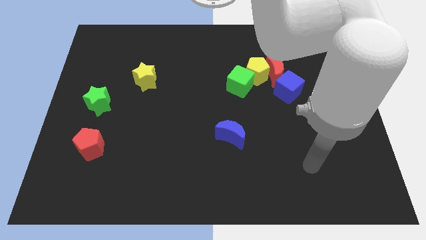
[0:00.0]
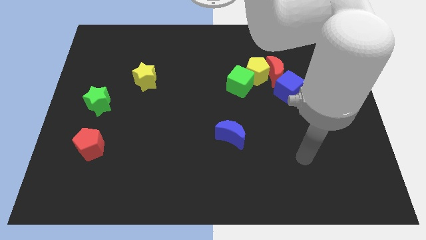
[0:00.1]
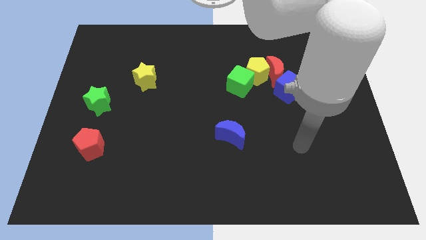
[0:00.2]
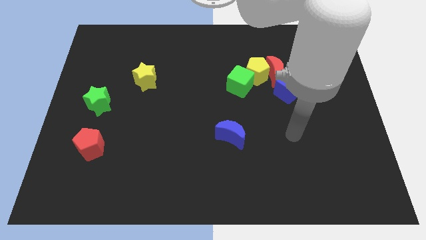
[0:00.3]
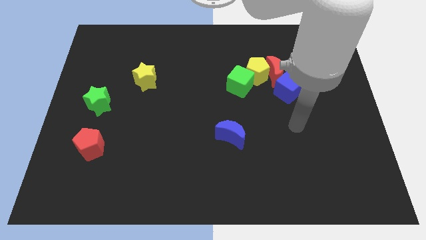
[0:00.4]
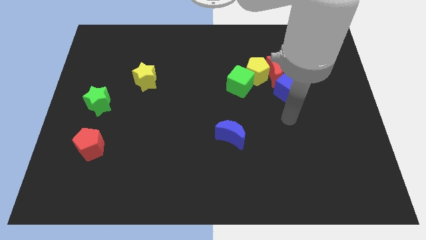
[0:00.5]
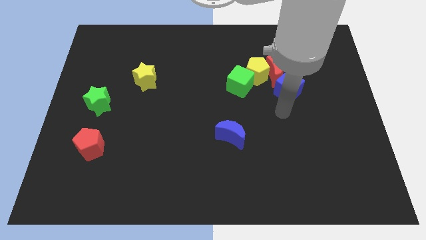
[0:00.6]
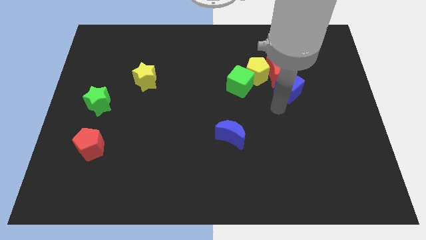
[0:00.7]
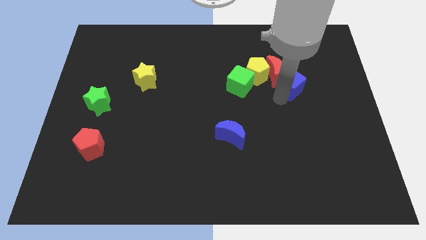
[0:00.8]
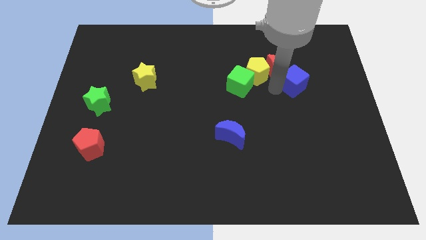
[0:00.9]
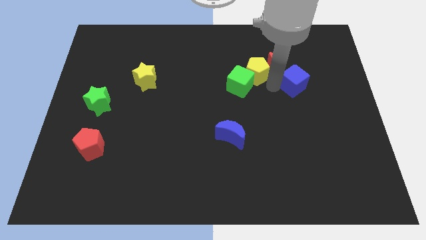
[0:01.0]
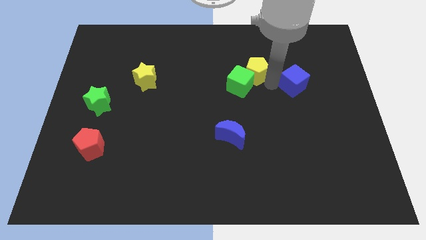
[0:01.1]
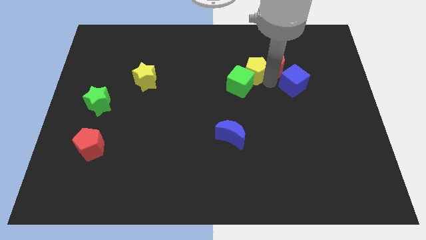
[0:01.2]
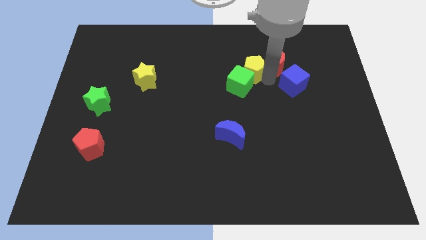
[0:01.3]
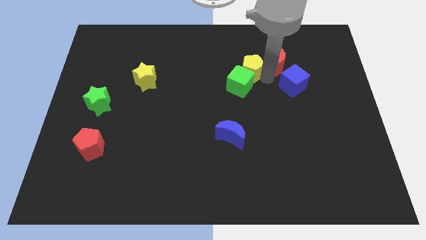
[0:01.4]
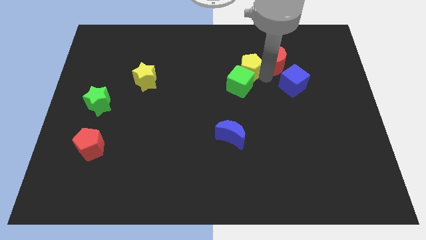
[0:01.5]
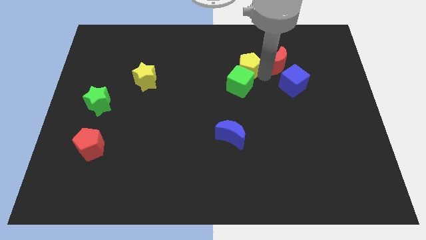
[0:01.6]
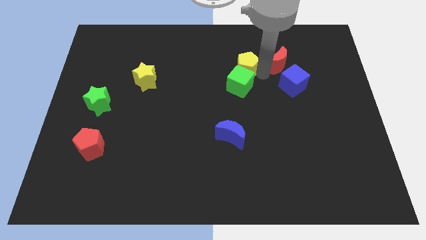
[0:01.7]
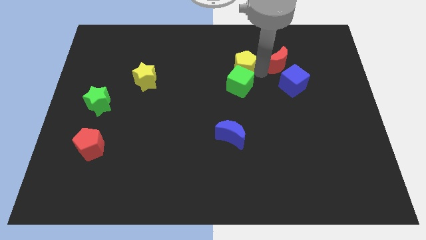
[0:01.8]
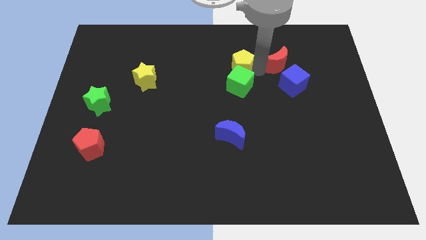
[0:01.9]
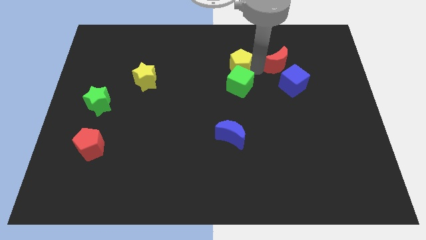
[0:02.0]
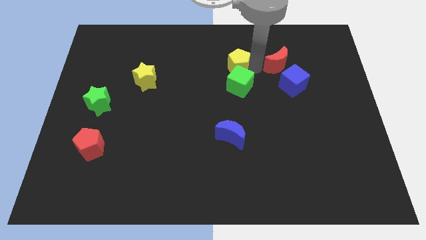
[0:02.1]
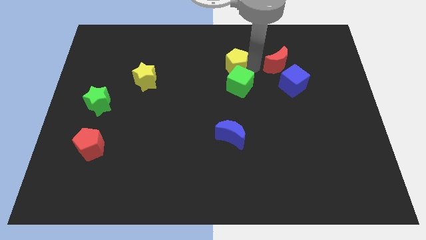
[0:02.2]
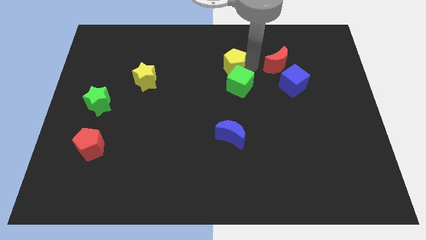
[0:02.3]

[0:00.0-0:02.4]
pull the yellow pentagon apart from the red moon, green cube, and blue cube

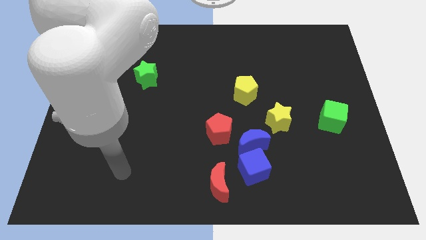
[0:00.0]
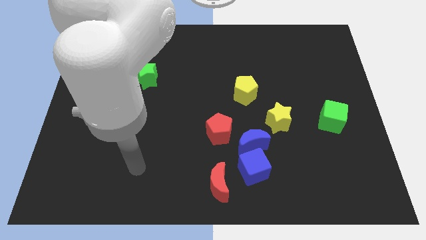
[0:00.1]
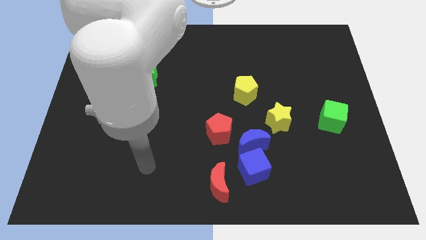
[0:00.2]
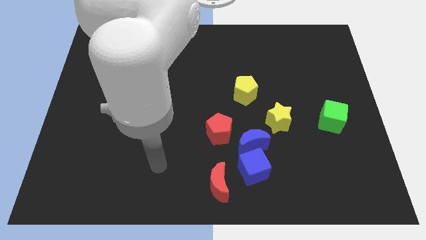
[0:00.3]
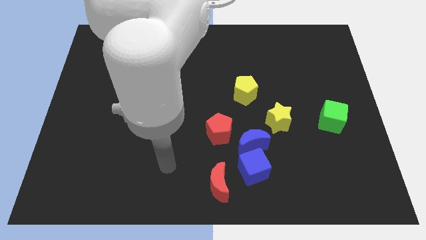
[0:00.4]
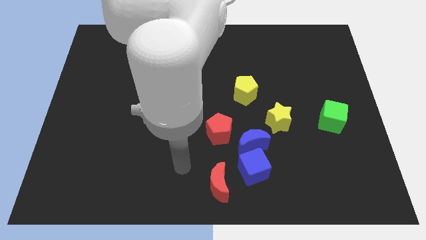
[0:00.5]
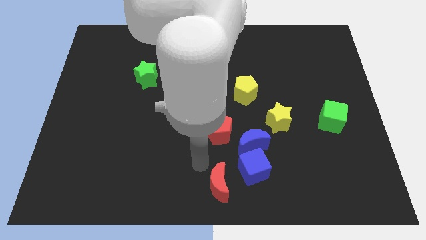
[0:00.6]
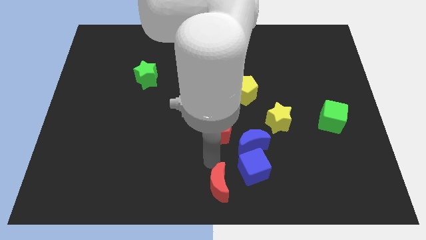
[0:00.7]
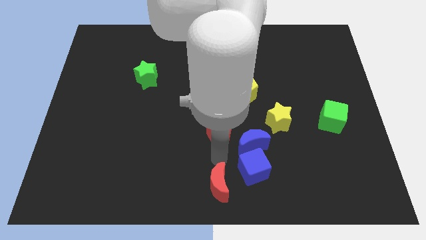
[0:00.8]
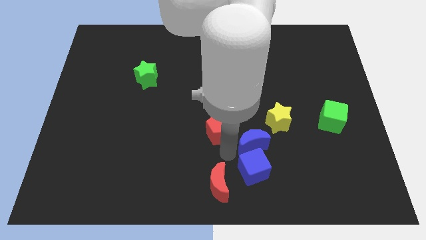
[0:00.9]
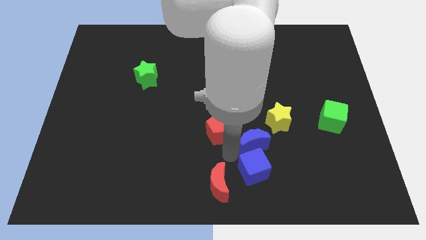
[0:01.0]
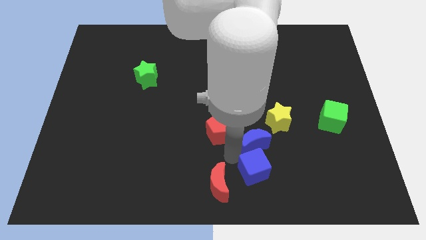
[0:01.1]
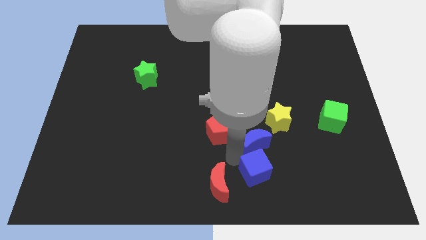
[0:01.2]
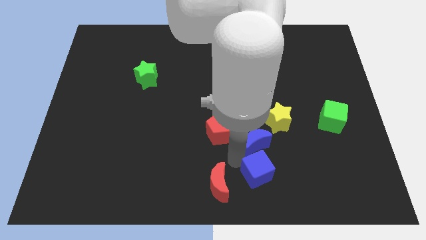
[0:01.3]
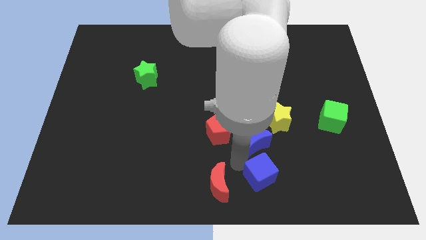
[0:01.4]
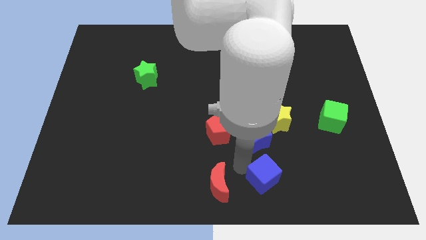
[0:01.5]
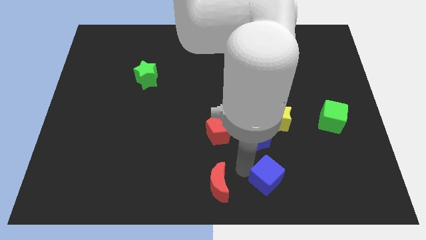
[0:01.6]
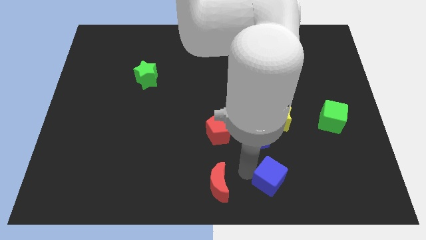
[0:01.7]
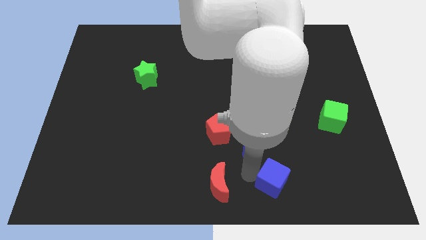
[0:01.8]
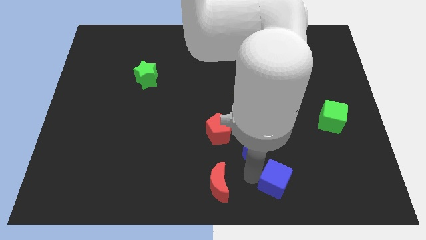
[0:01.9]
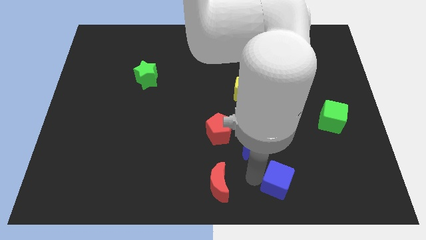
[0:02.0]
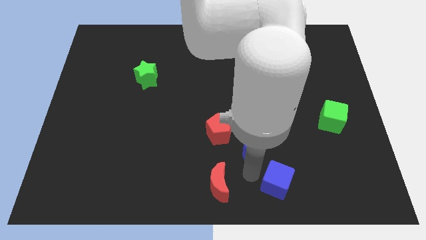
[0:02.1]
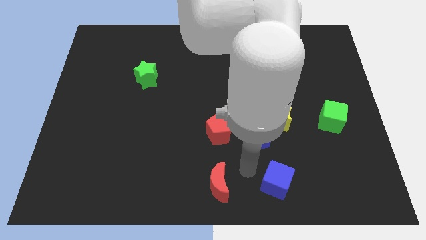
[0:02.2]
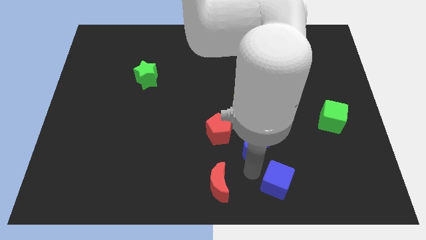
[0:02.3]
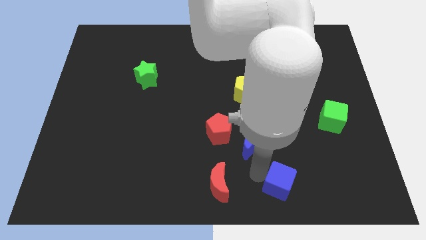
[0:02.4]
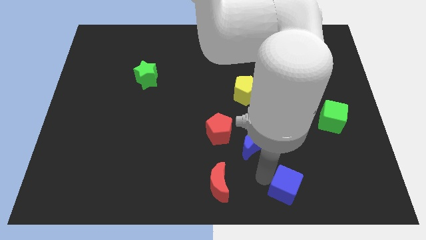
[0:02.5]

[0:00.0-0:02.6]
move the blue cube away from the blue moon and red moon

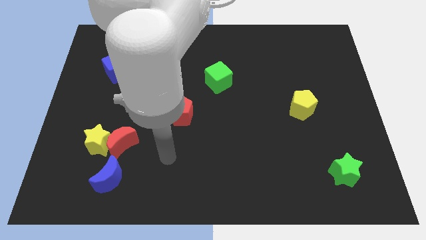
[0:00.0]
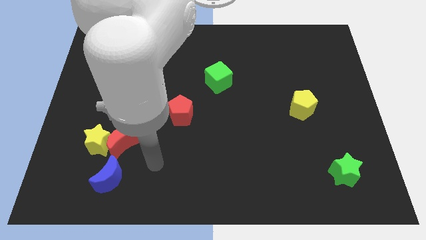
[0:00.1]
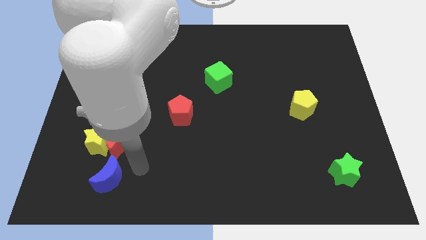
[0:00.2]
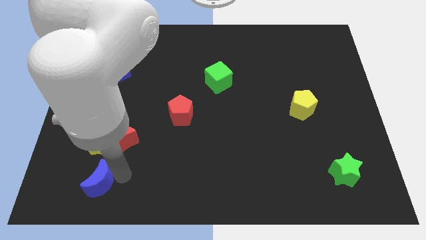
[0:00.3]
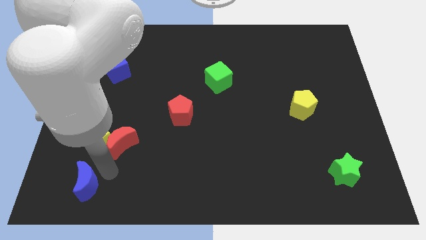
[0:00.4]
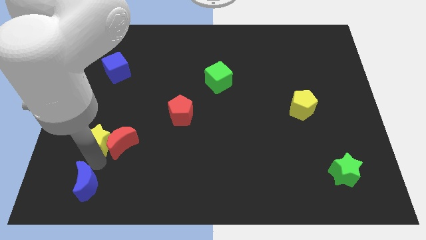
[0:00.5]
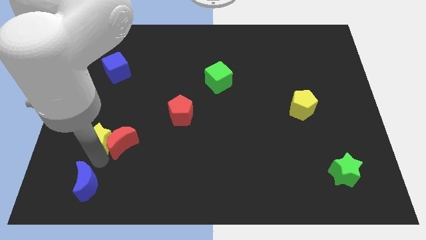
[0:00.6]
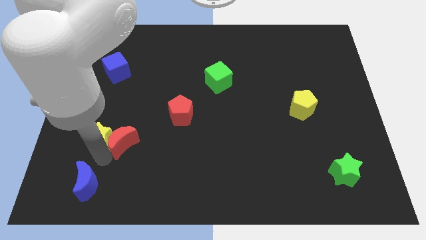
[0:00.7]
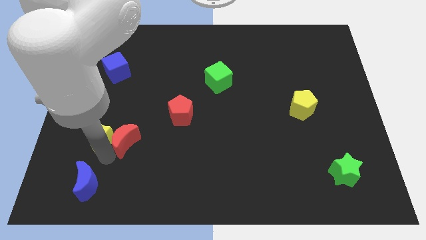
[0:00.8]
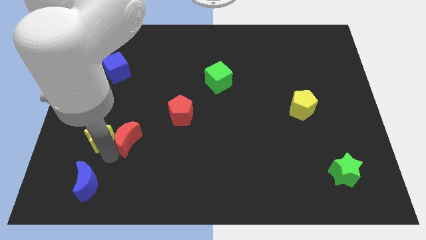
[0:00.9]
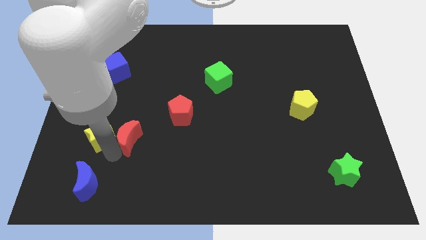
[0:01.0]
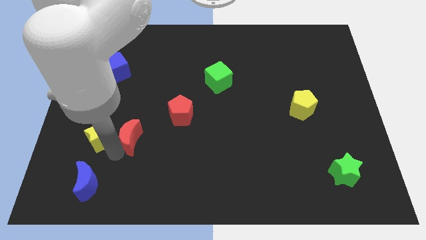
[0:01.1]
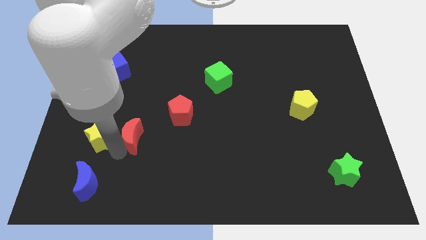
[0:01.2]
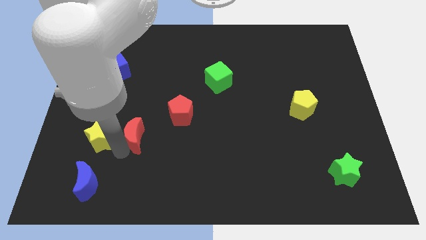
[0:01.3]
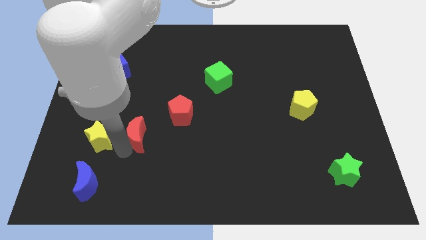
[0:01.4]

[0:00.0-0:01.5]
separate the red moon from the yellow star and blue moon

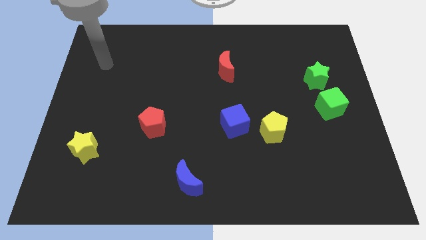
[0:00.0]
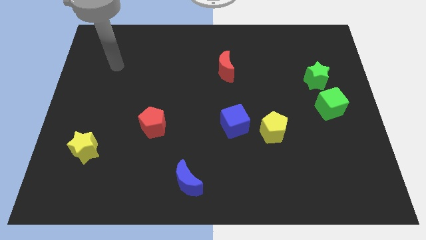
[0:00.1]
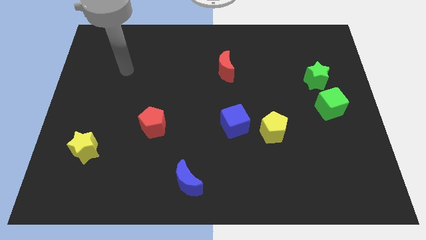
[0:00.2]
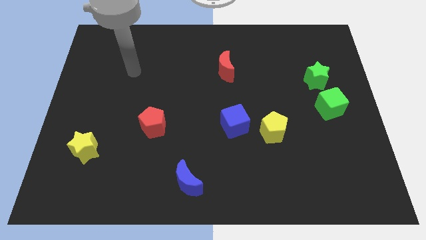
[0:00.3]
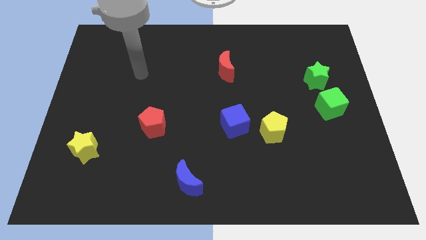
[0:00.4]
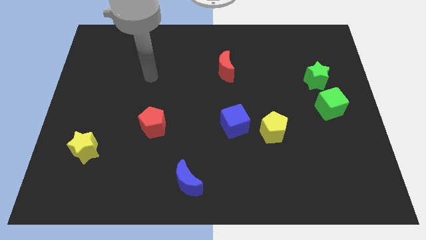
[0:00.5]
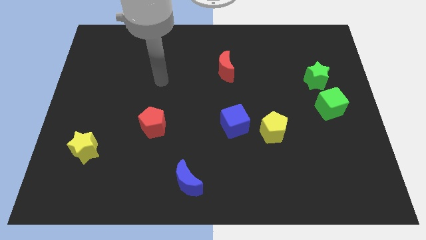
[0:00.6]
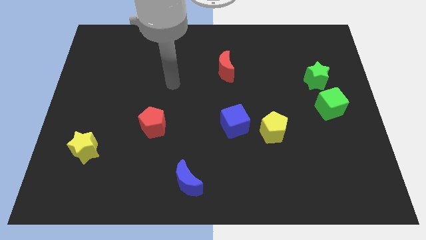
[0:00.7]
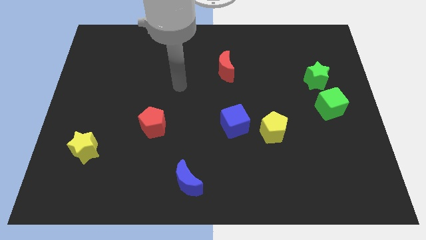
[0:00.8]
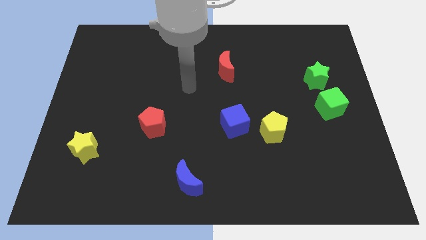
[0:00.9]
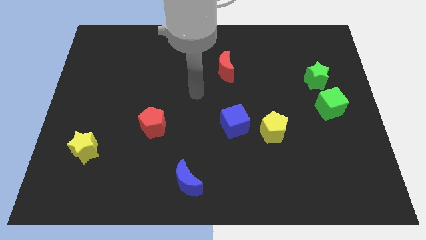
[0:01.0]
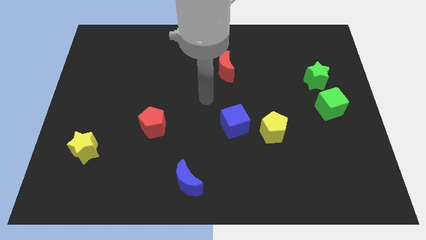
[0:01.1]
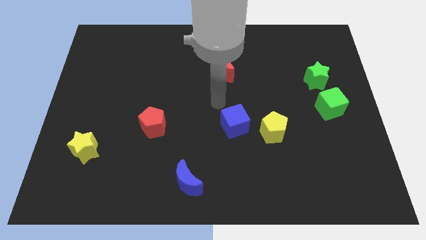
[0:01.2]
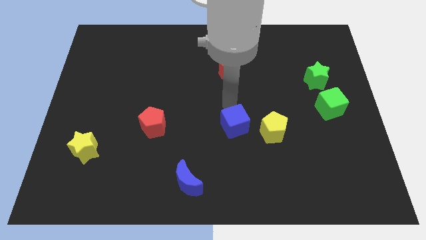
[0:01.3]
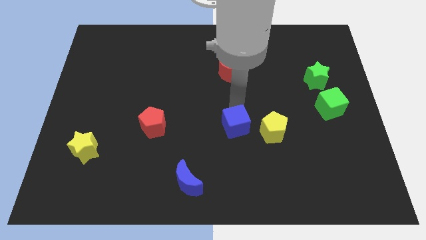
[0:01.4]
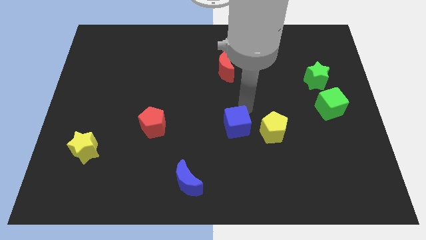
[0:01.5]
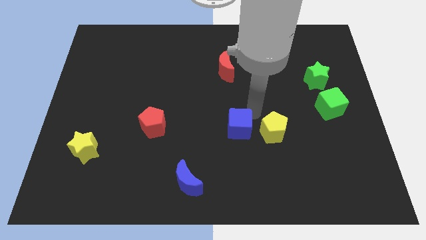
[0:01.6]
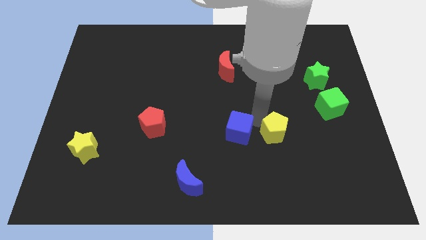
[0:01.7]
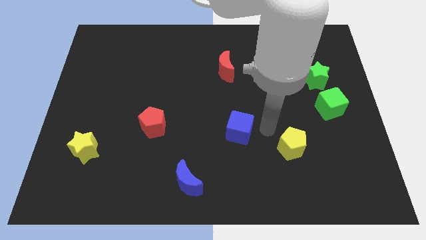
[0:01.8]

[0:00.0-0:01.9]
move the blue cube away from the yellow pentagon

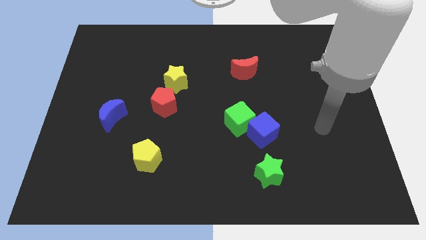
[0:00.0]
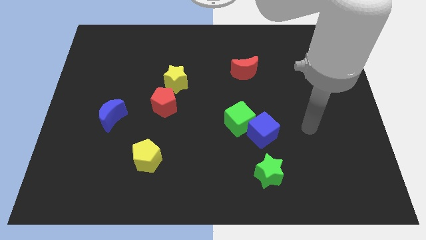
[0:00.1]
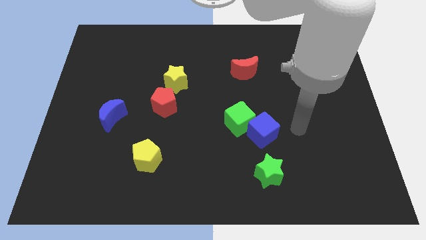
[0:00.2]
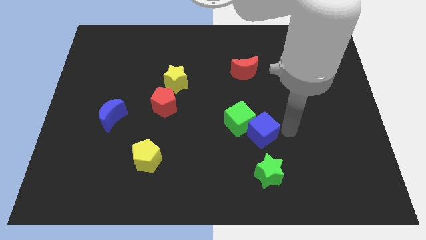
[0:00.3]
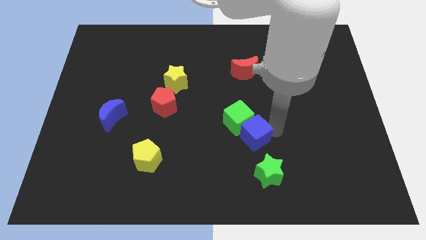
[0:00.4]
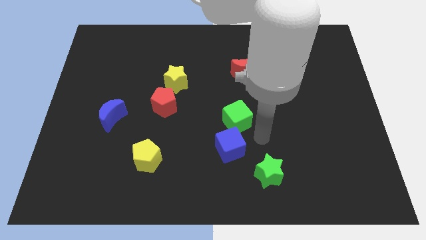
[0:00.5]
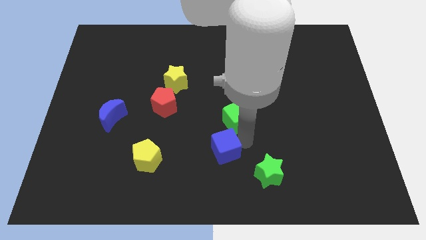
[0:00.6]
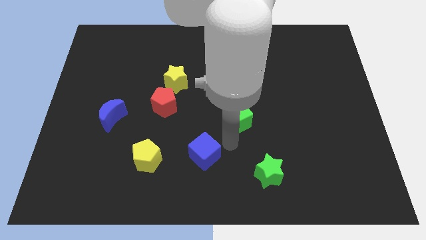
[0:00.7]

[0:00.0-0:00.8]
move the green cube away from the blue cube

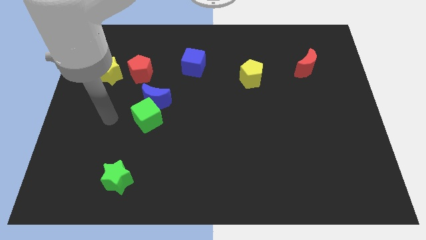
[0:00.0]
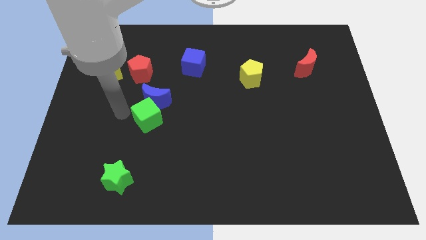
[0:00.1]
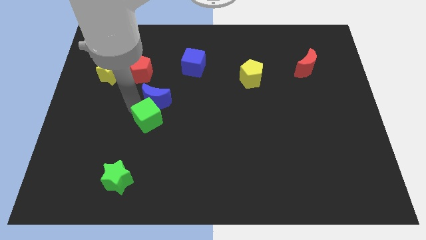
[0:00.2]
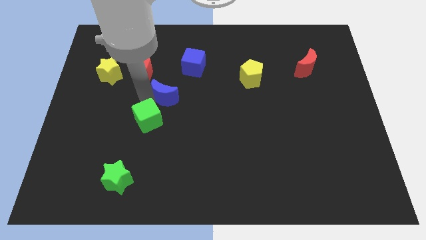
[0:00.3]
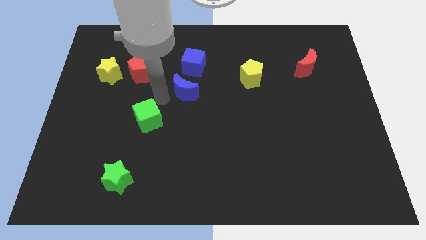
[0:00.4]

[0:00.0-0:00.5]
pull the green cube apart from the blue moon
